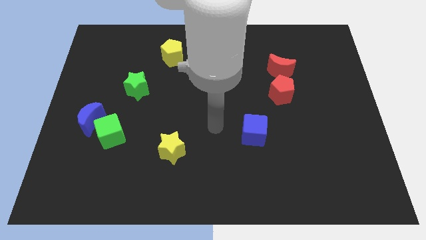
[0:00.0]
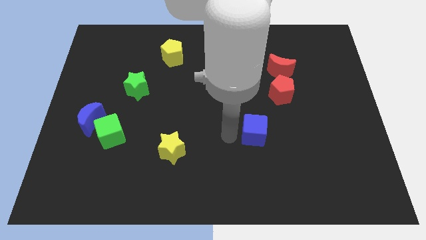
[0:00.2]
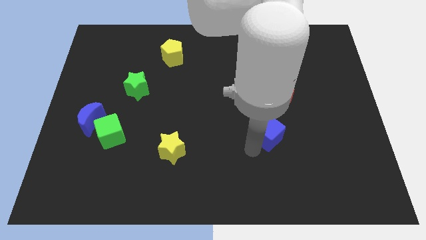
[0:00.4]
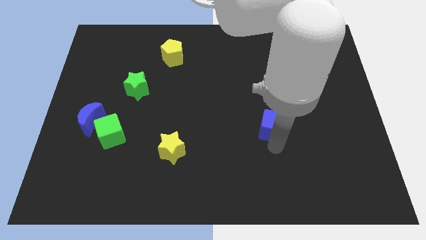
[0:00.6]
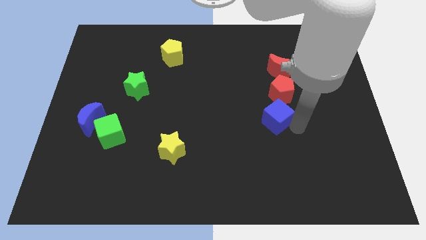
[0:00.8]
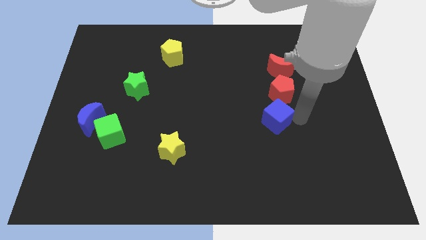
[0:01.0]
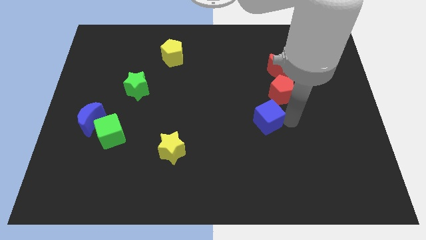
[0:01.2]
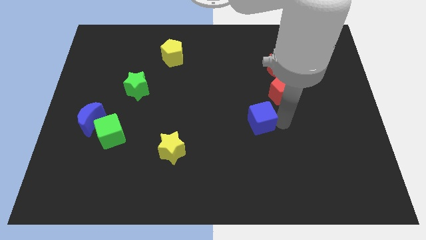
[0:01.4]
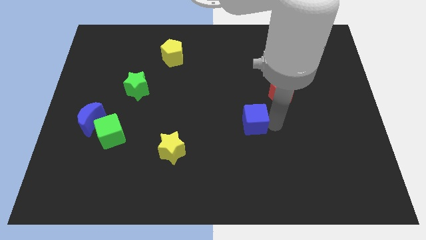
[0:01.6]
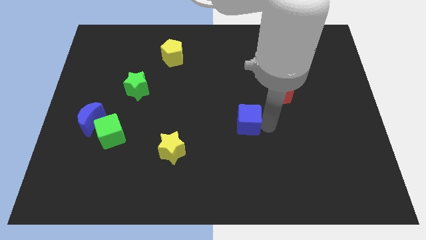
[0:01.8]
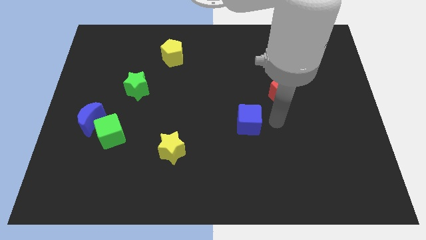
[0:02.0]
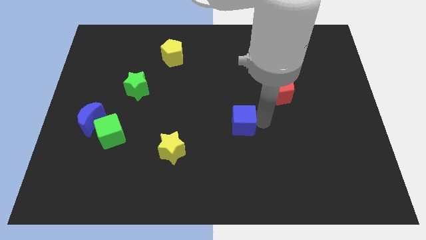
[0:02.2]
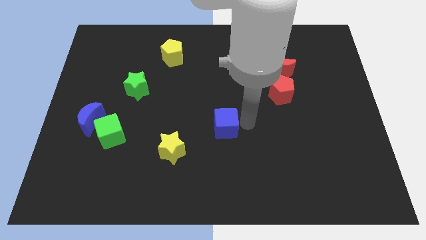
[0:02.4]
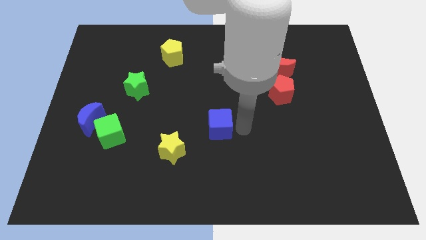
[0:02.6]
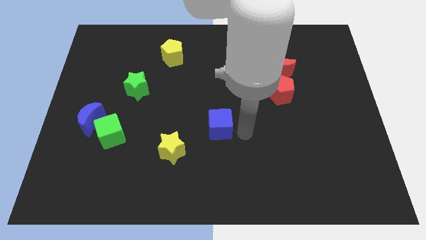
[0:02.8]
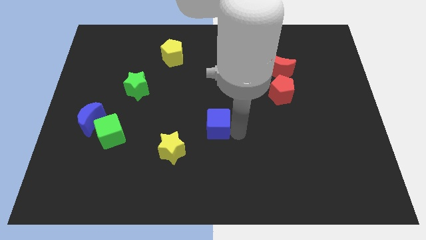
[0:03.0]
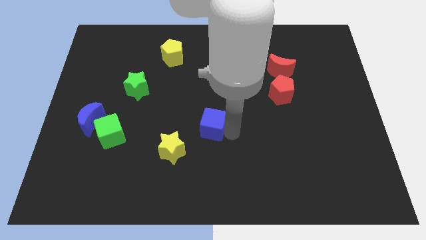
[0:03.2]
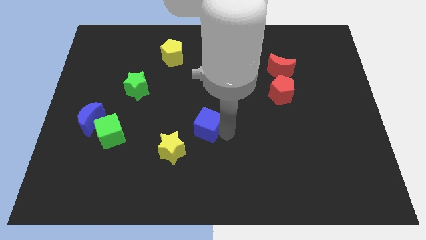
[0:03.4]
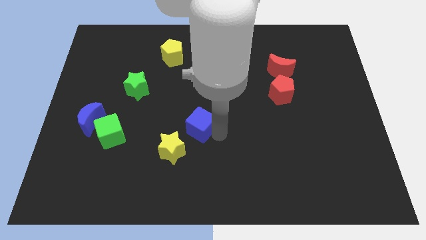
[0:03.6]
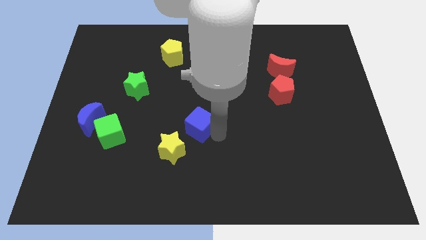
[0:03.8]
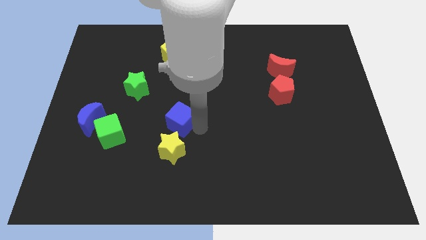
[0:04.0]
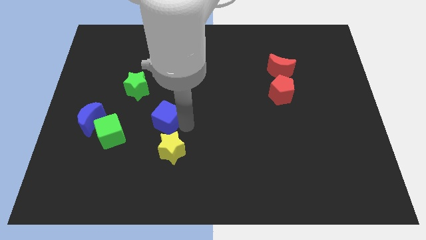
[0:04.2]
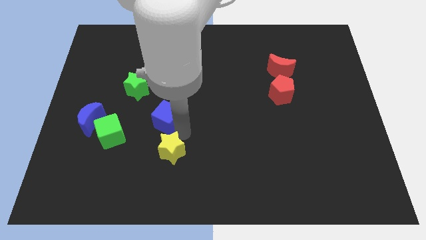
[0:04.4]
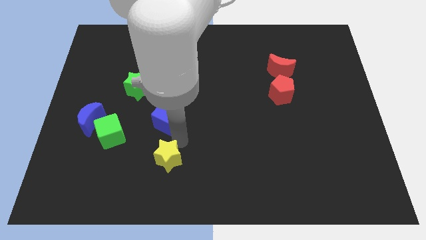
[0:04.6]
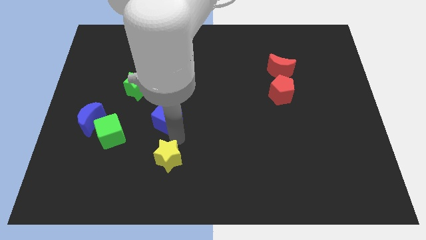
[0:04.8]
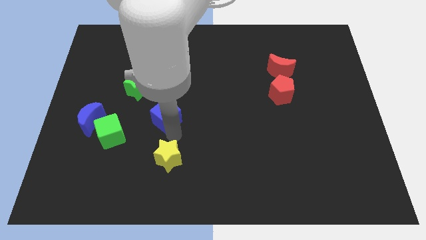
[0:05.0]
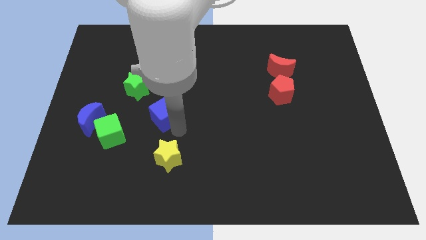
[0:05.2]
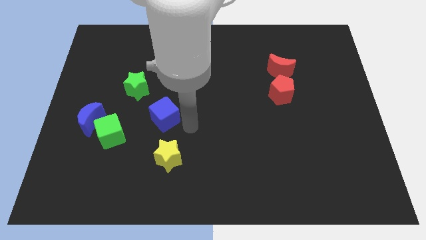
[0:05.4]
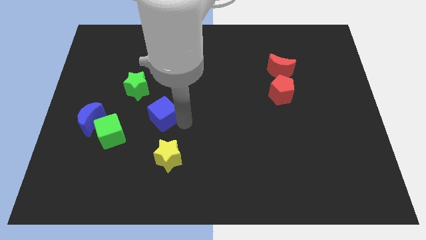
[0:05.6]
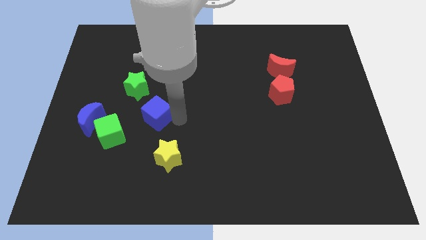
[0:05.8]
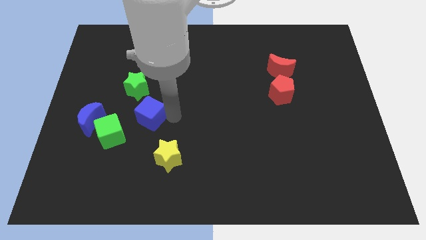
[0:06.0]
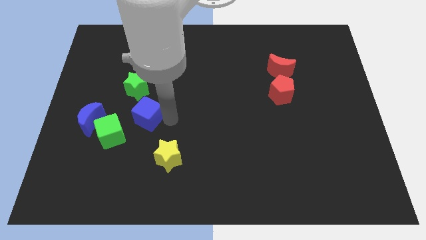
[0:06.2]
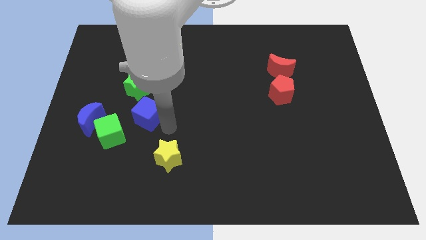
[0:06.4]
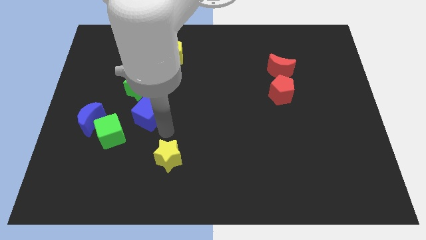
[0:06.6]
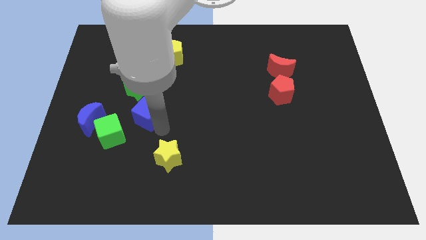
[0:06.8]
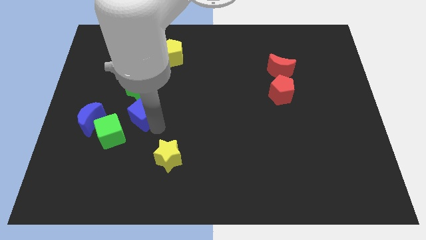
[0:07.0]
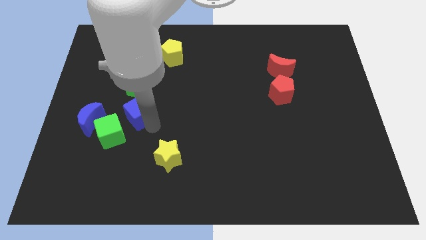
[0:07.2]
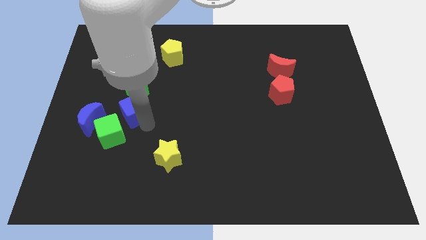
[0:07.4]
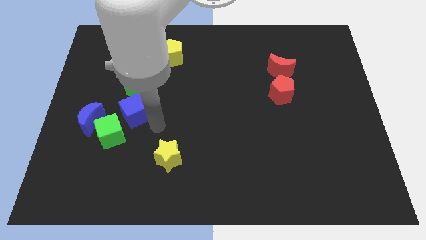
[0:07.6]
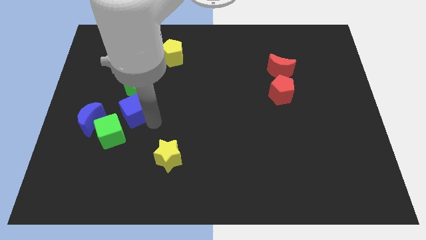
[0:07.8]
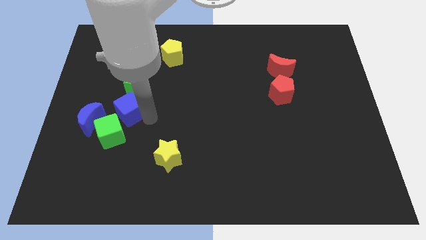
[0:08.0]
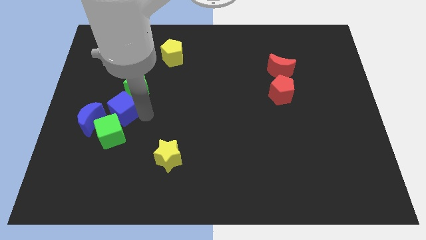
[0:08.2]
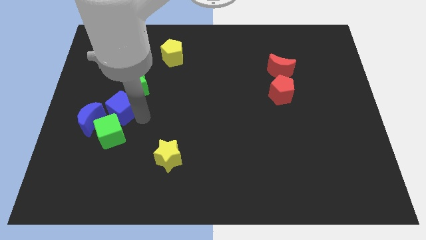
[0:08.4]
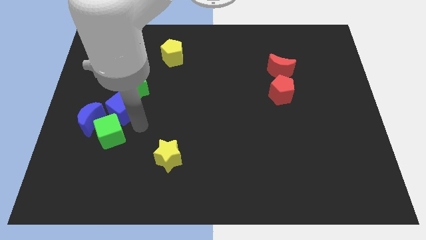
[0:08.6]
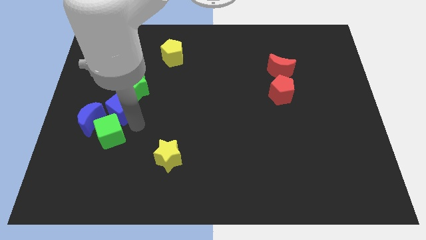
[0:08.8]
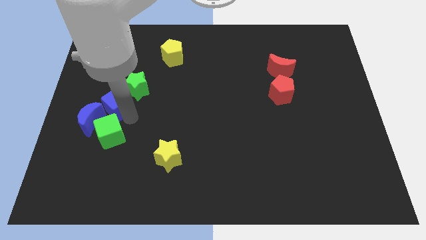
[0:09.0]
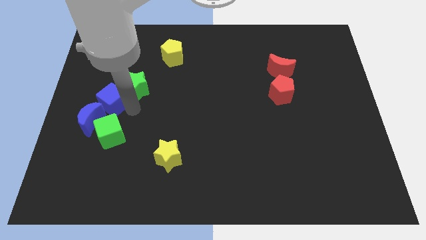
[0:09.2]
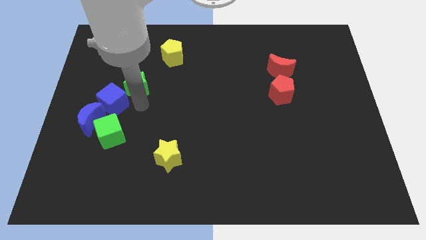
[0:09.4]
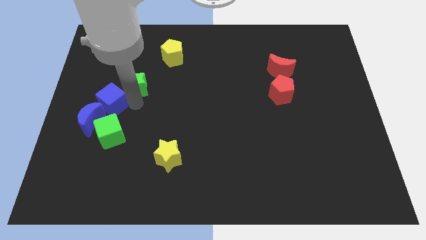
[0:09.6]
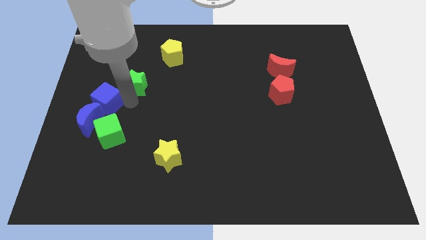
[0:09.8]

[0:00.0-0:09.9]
put the blue cube to the left side of the board

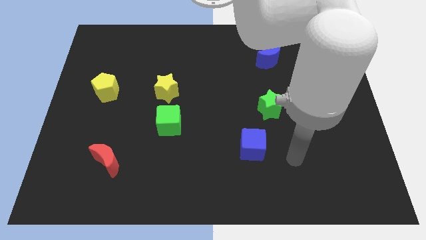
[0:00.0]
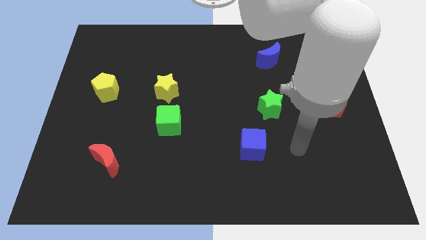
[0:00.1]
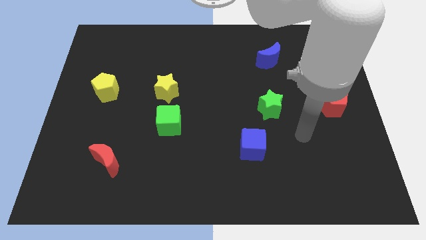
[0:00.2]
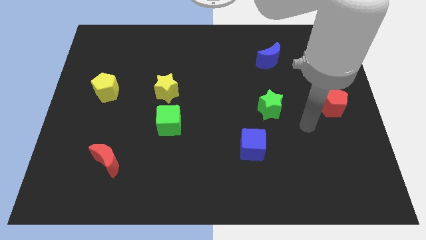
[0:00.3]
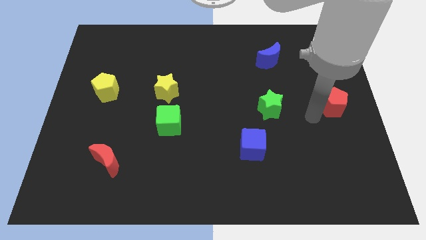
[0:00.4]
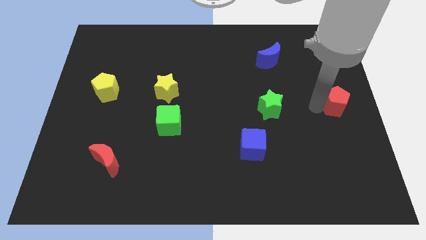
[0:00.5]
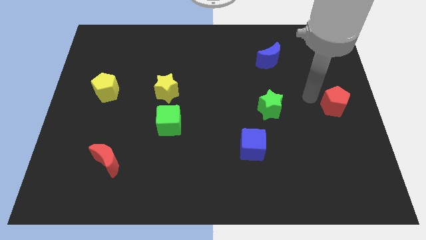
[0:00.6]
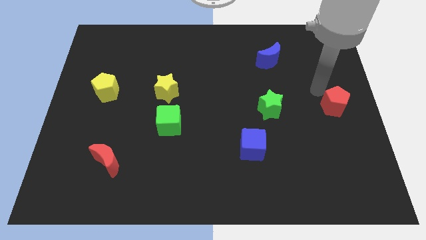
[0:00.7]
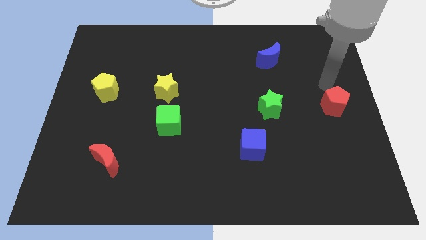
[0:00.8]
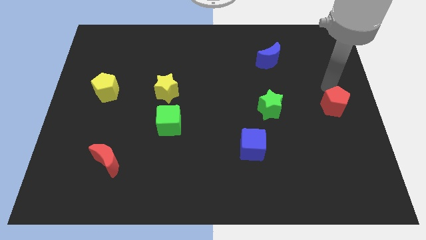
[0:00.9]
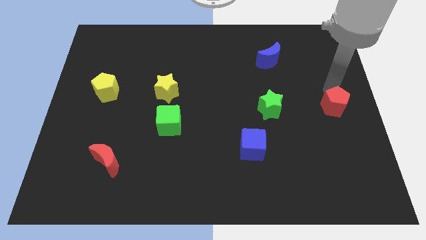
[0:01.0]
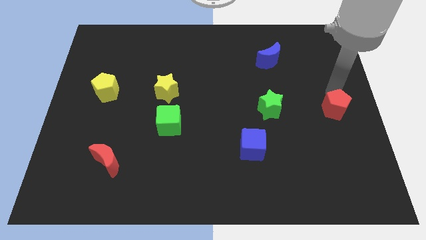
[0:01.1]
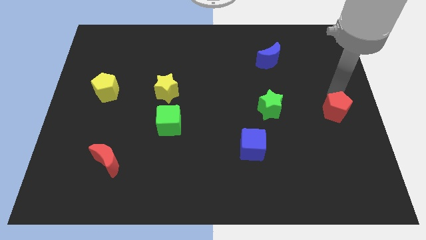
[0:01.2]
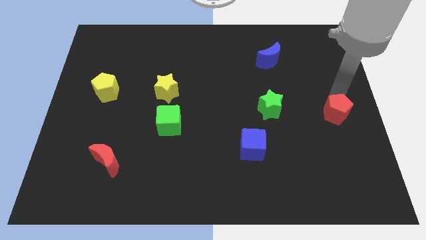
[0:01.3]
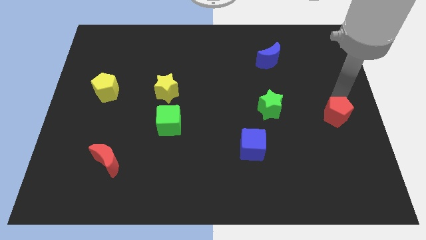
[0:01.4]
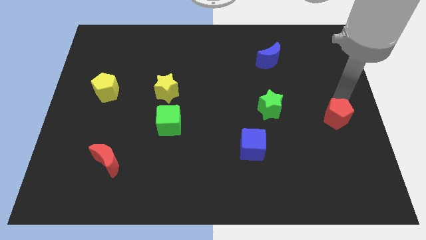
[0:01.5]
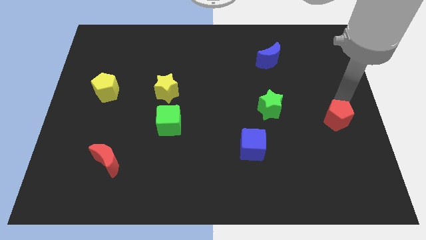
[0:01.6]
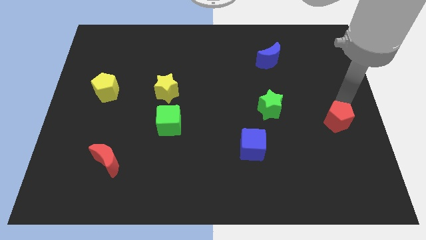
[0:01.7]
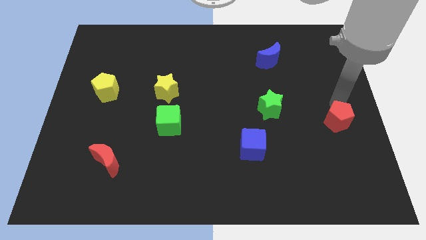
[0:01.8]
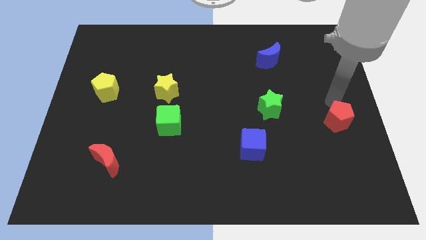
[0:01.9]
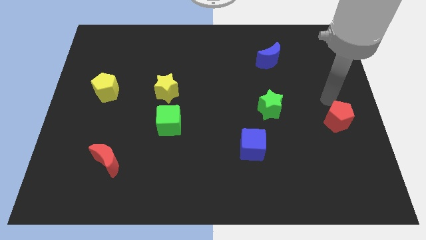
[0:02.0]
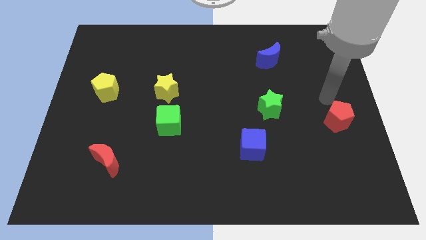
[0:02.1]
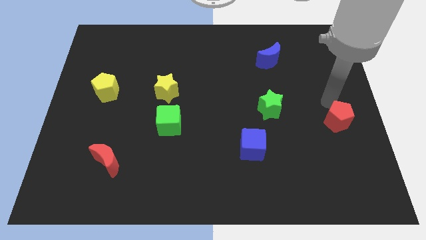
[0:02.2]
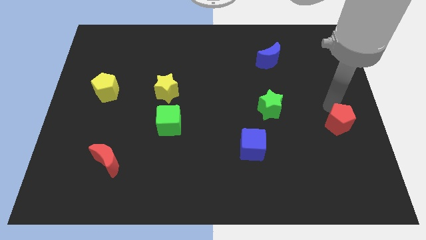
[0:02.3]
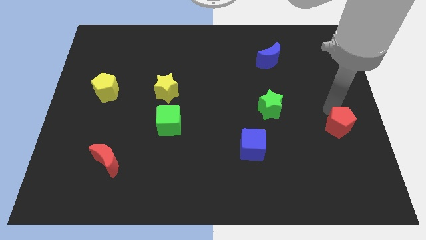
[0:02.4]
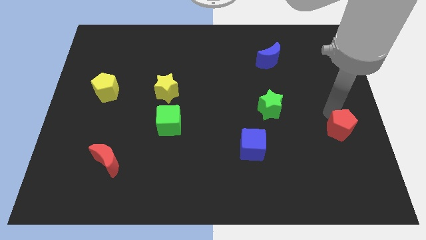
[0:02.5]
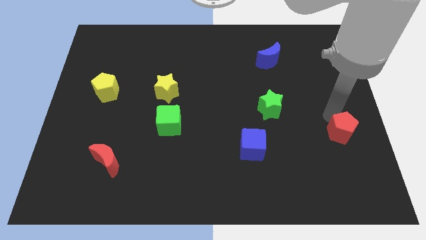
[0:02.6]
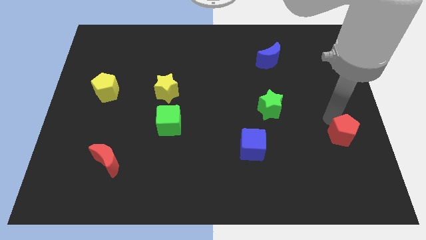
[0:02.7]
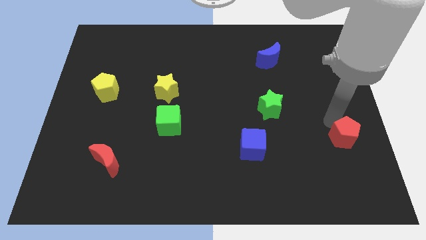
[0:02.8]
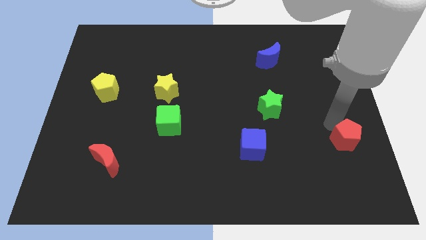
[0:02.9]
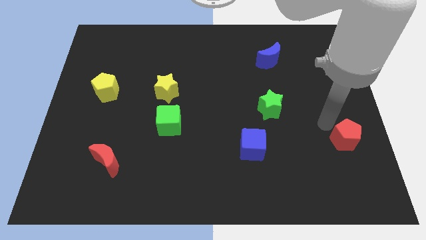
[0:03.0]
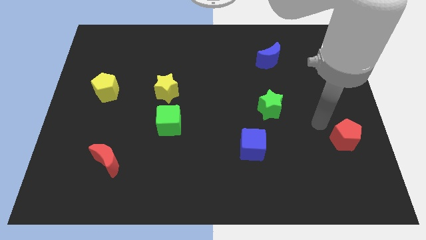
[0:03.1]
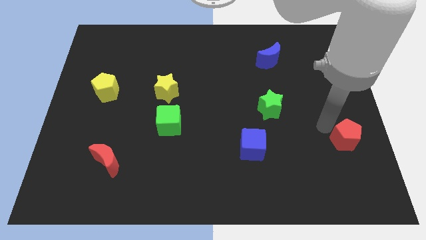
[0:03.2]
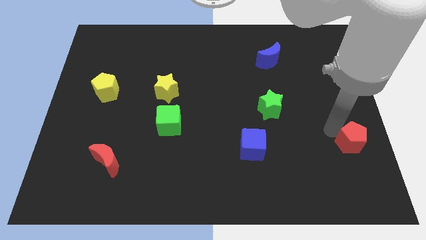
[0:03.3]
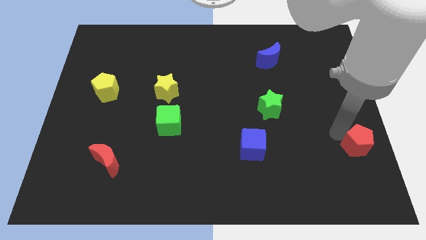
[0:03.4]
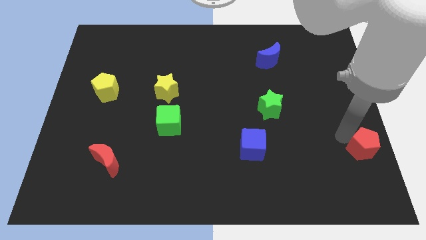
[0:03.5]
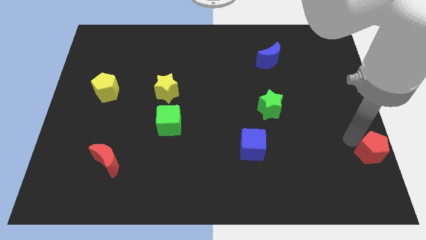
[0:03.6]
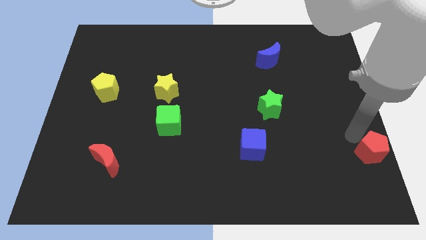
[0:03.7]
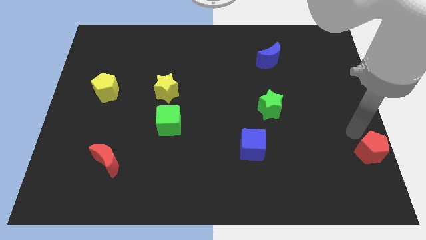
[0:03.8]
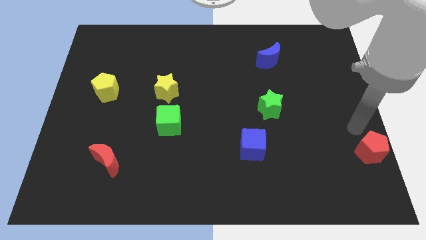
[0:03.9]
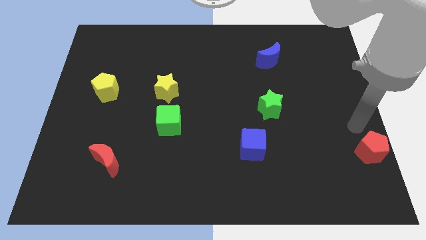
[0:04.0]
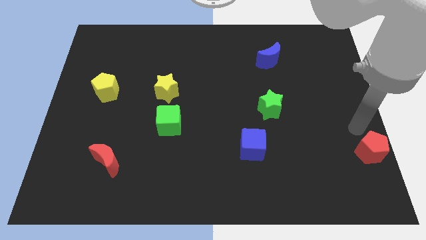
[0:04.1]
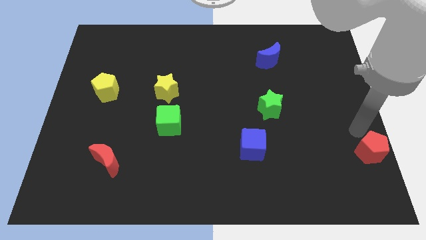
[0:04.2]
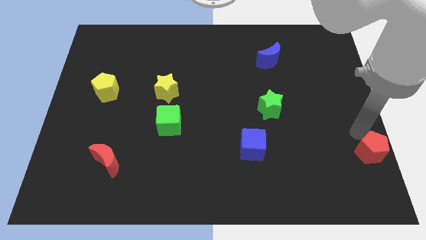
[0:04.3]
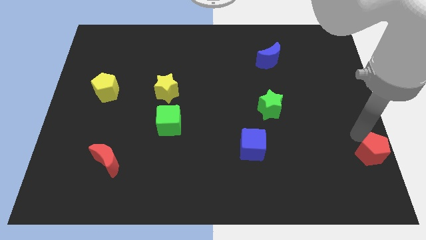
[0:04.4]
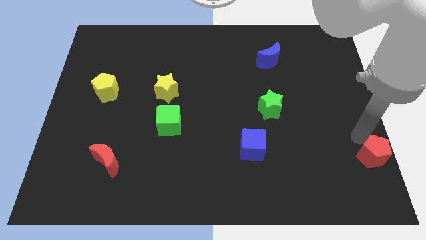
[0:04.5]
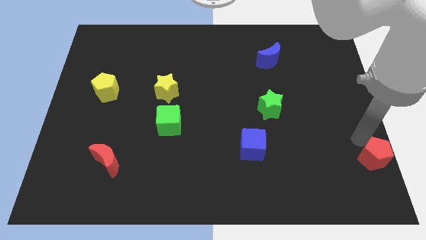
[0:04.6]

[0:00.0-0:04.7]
move the red pentagon to the bottom right
